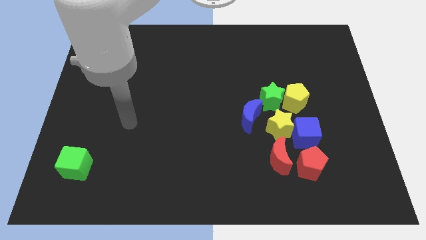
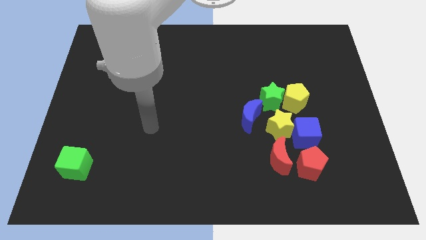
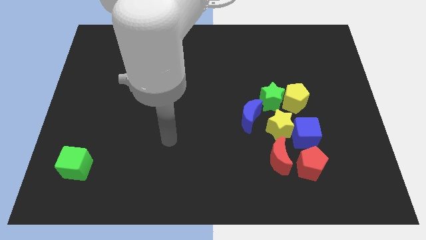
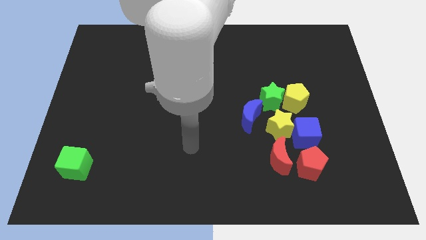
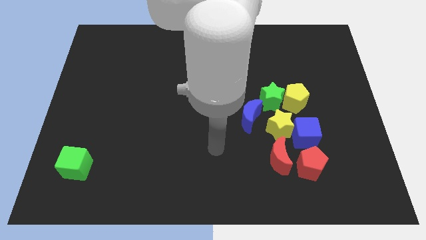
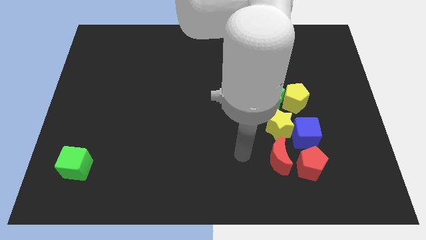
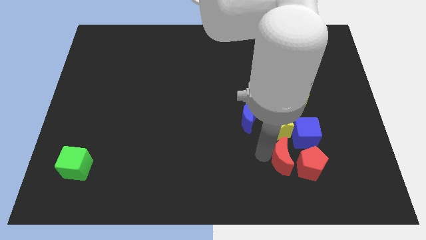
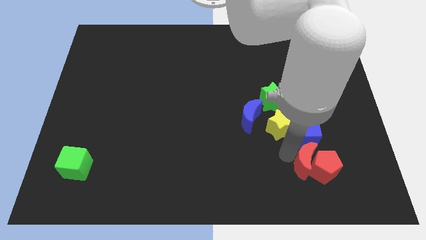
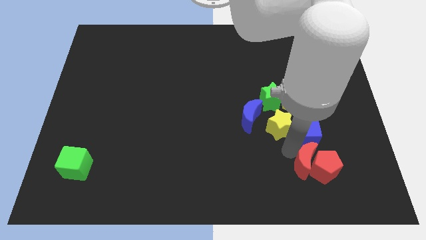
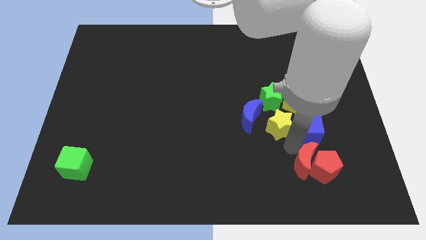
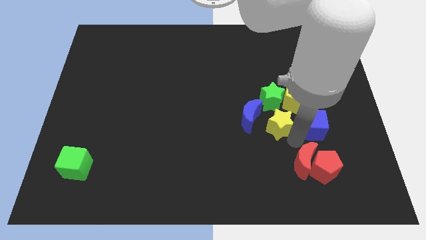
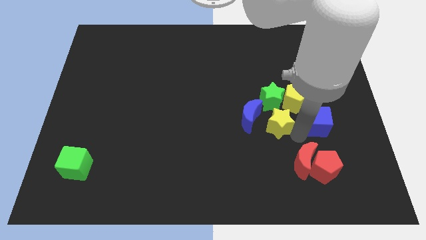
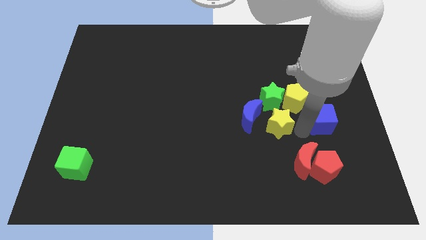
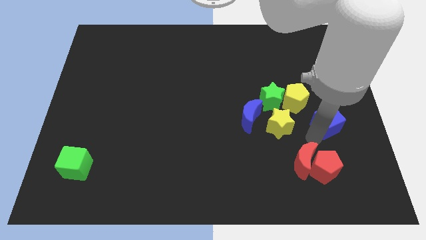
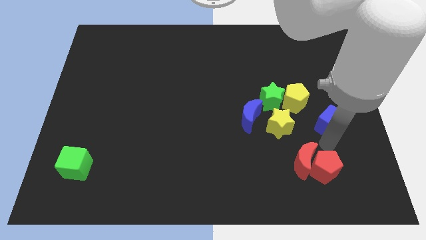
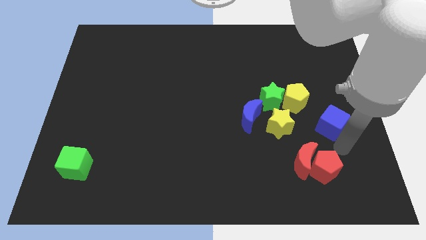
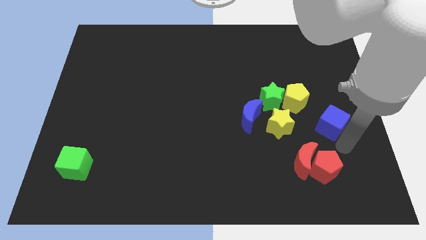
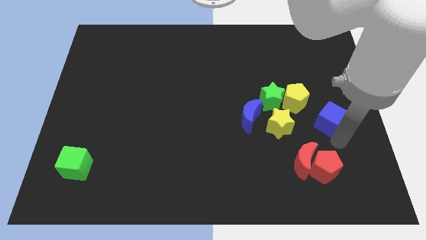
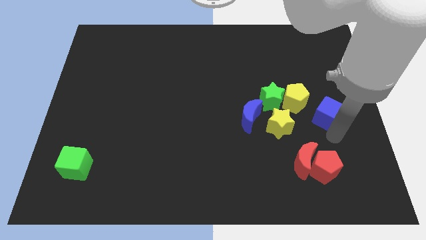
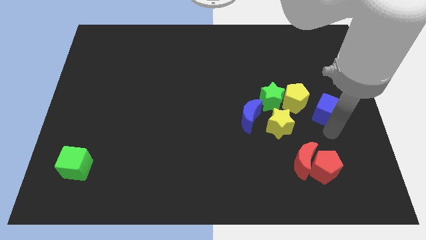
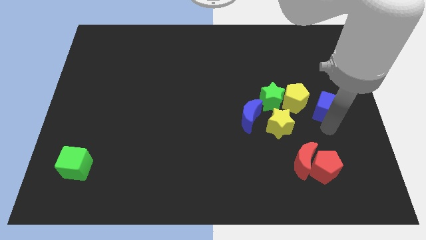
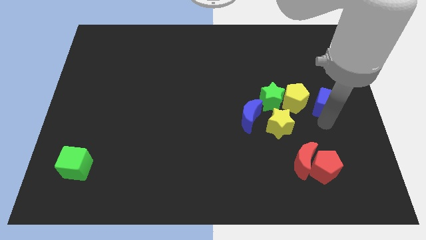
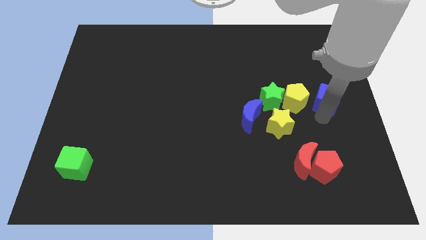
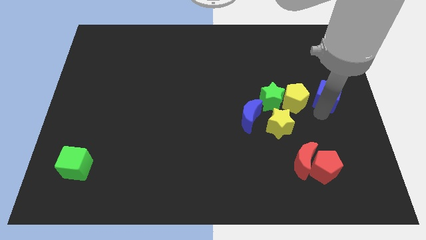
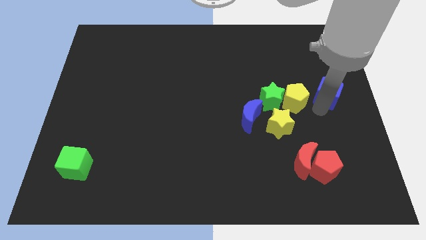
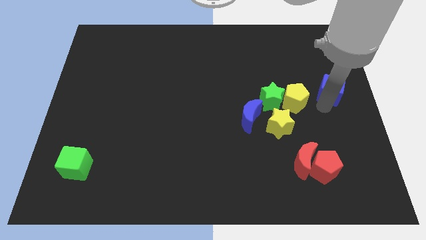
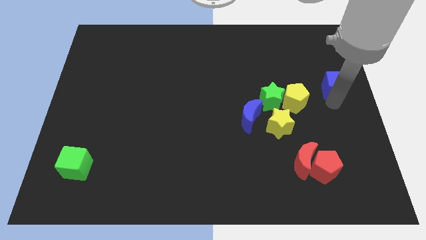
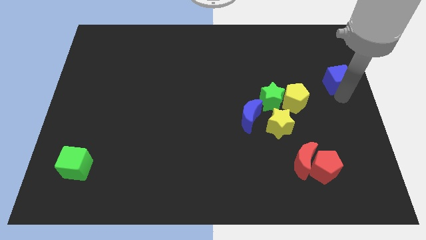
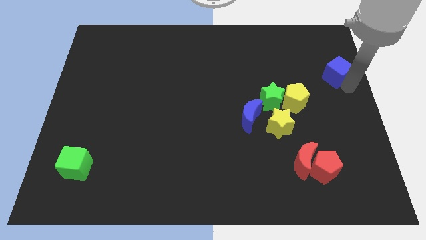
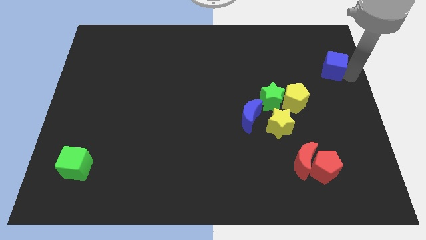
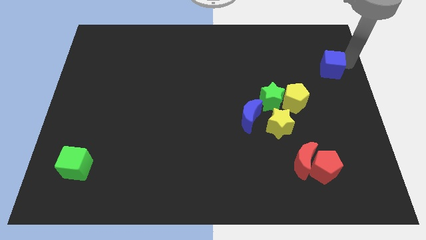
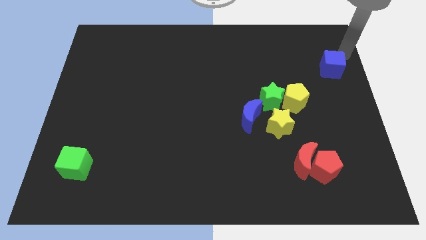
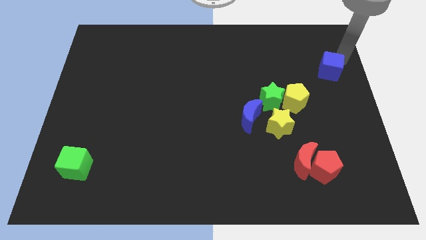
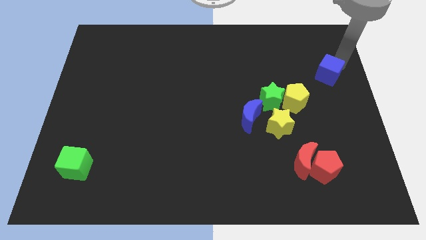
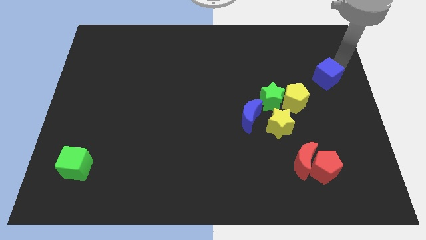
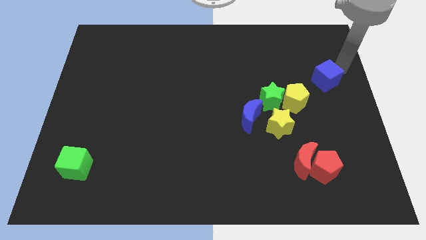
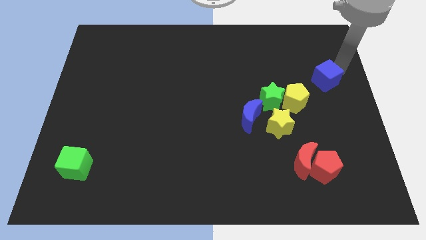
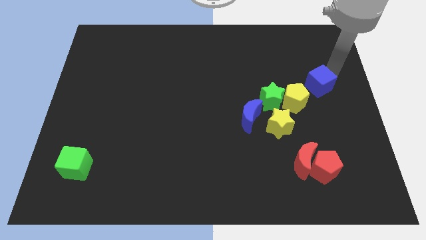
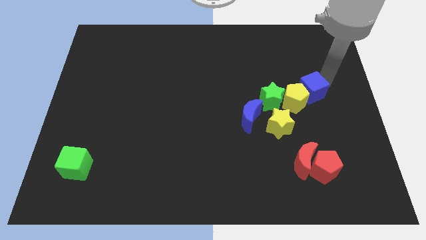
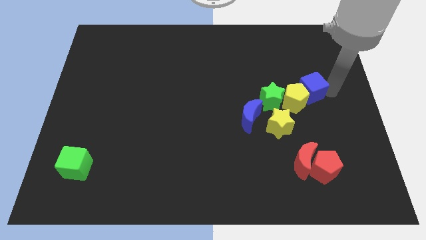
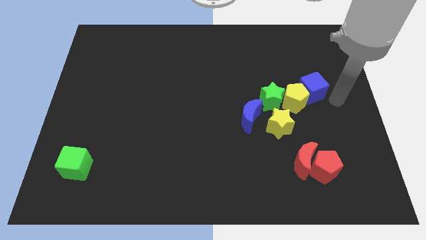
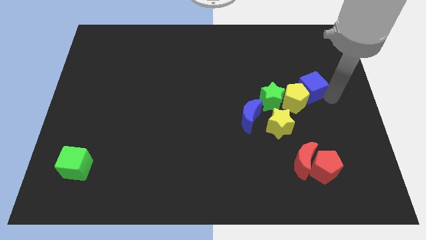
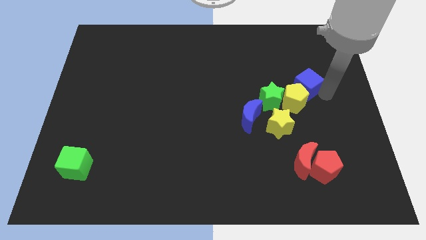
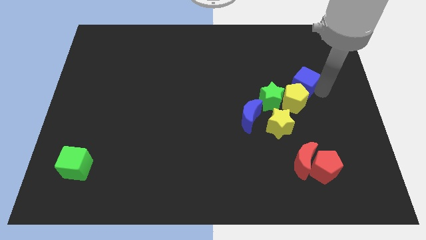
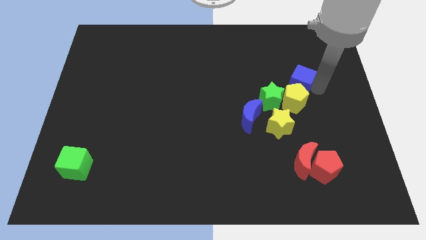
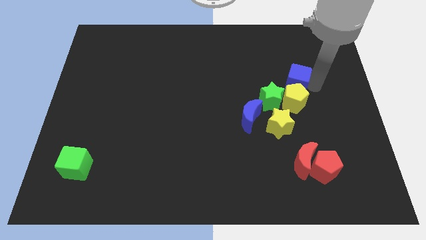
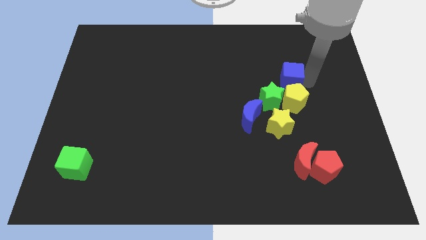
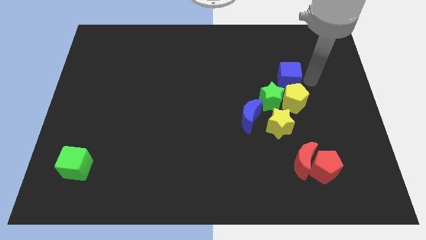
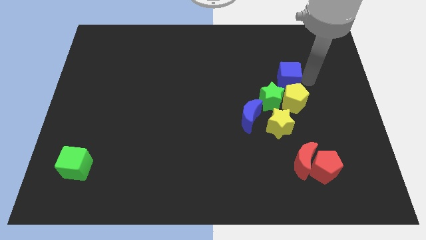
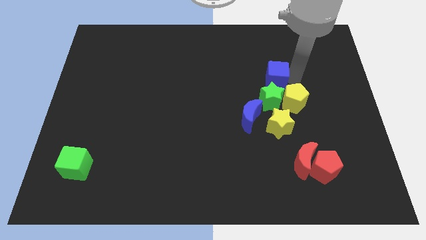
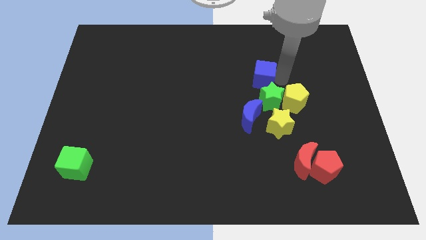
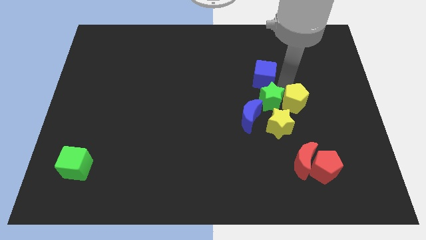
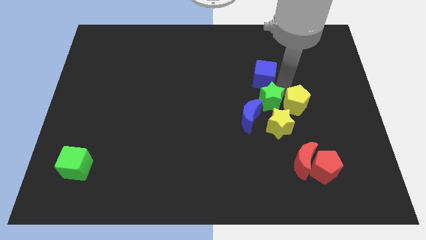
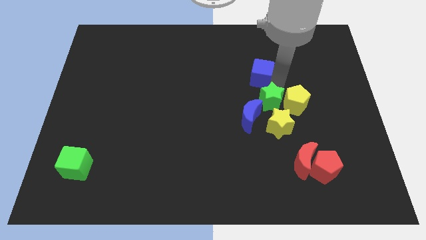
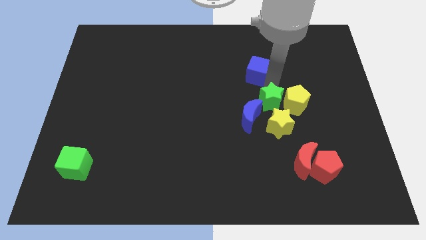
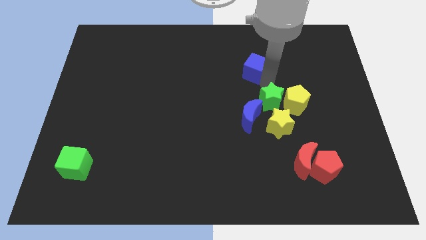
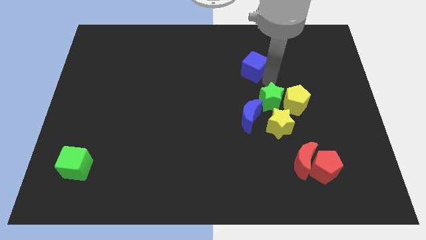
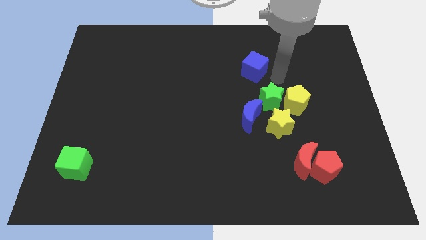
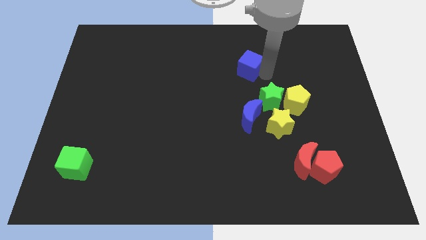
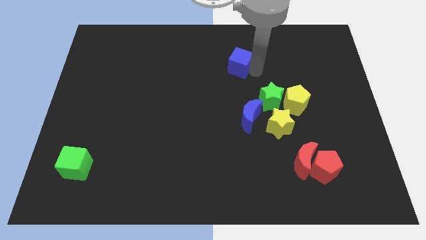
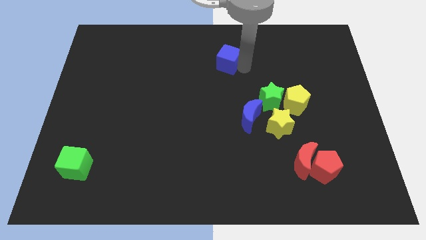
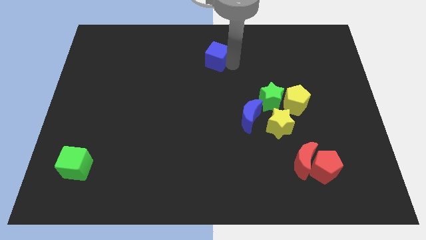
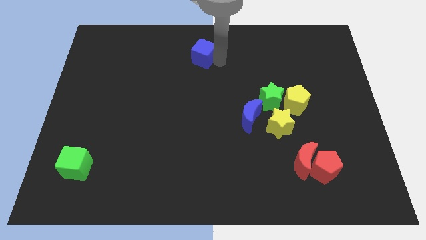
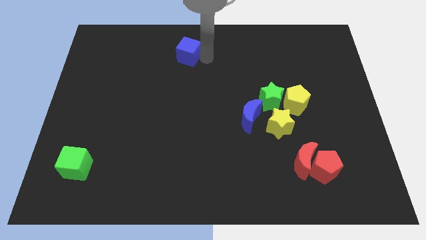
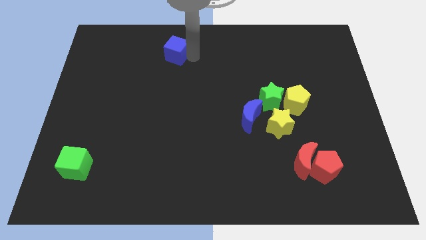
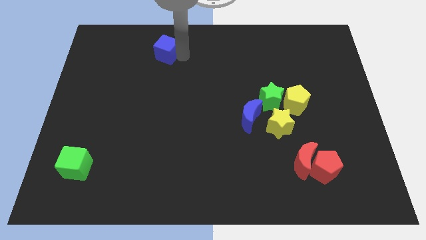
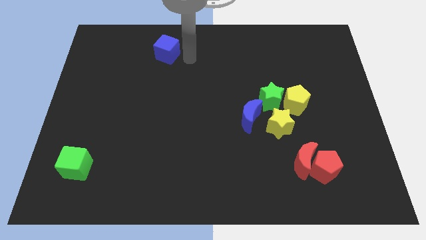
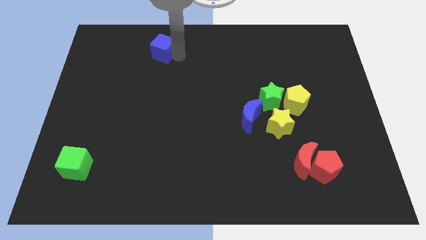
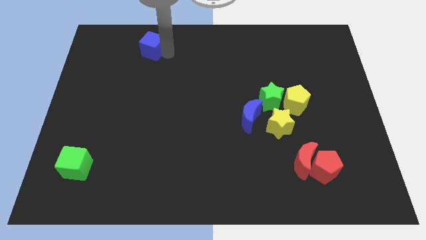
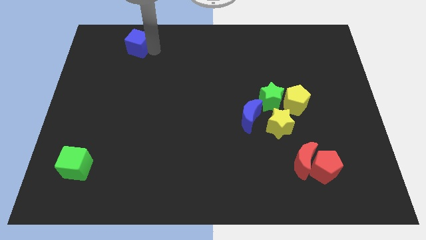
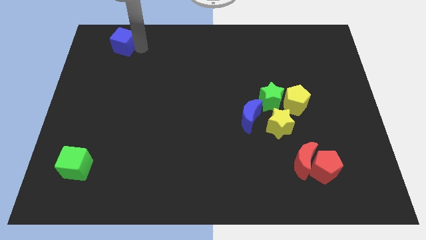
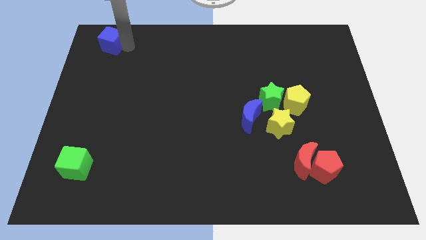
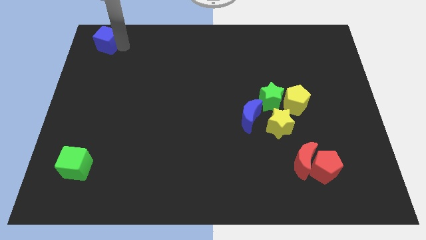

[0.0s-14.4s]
push the blue cube to the top left of the board

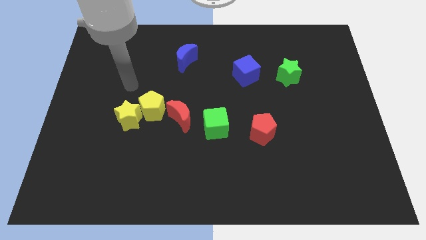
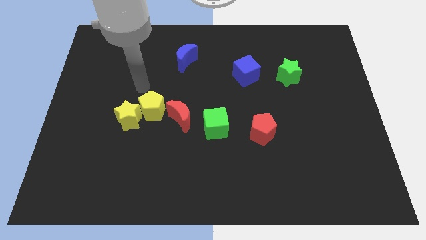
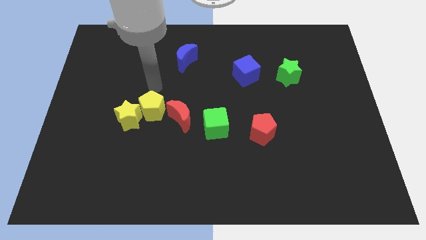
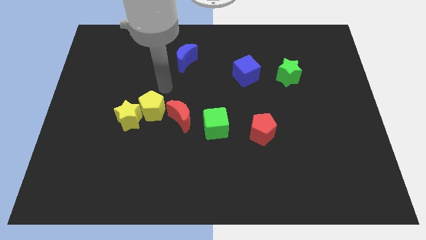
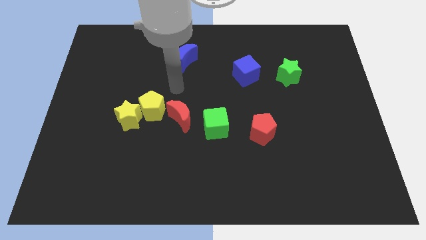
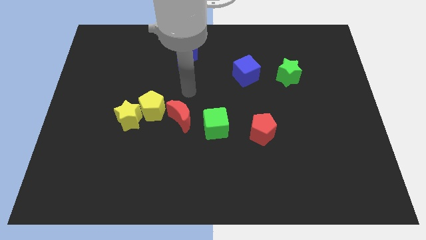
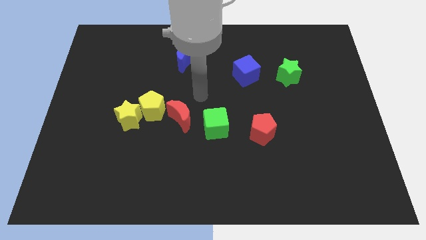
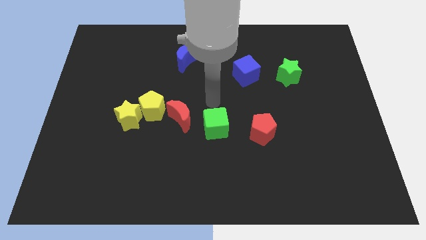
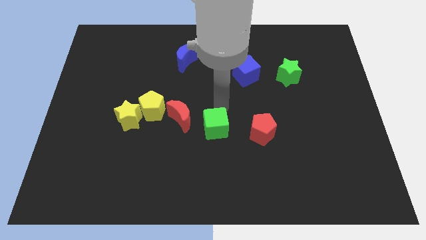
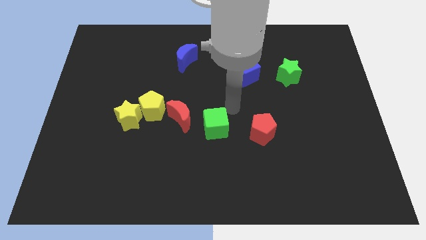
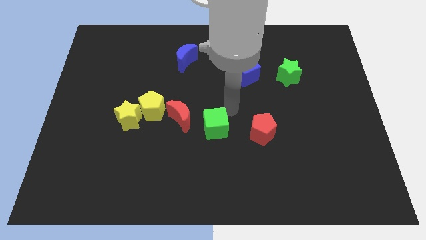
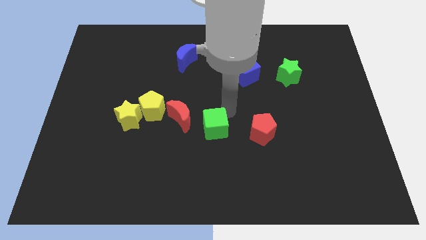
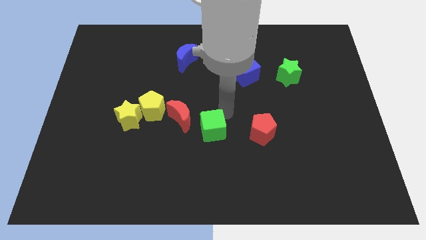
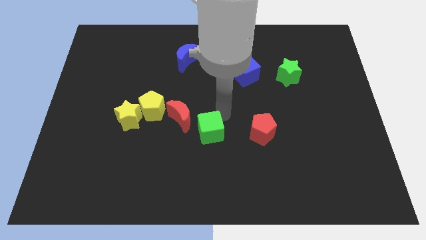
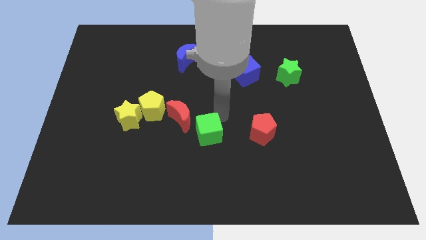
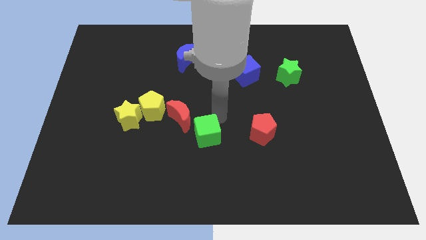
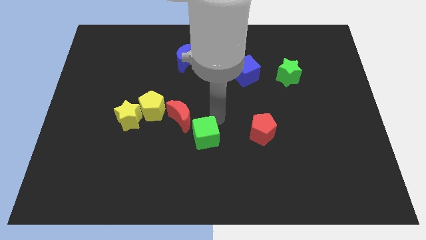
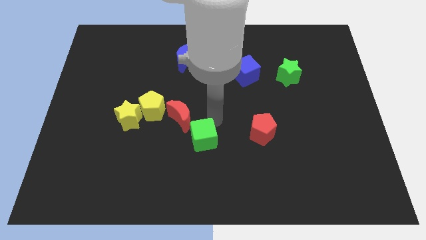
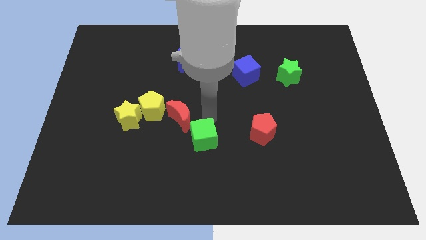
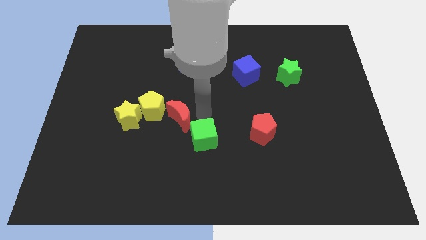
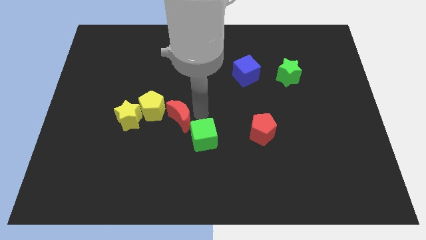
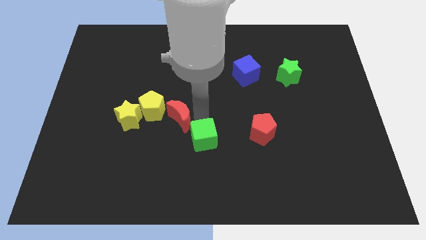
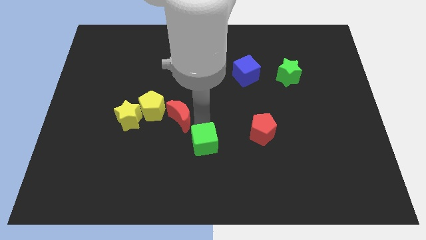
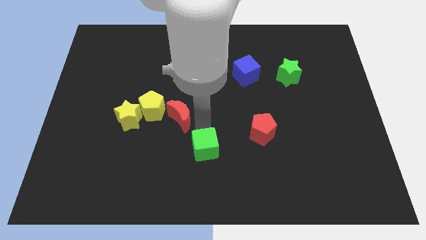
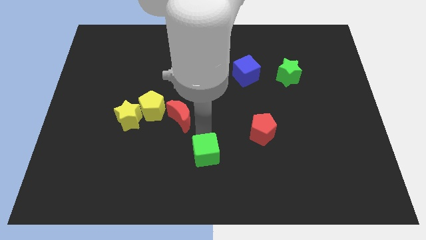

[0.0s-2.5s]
slide the green cube to the bottom side
